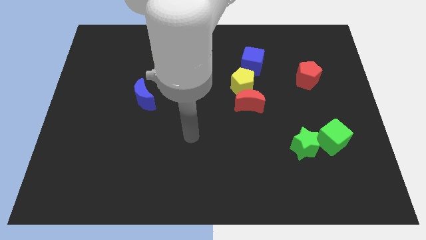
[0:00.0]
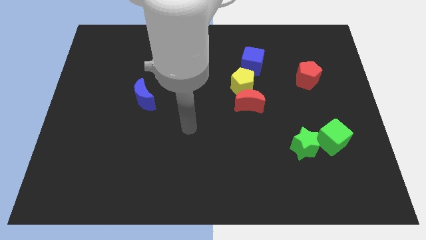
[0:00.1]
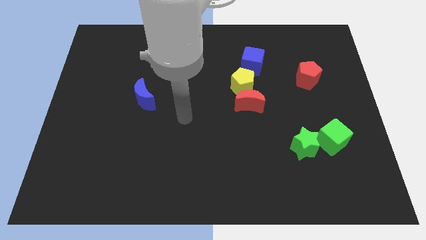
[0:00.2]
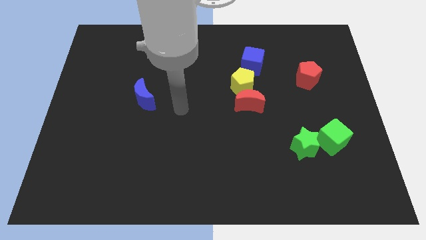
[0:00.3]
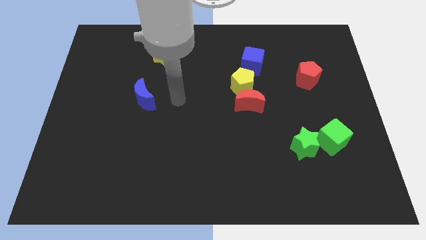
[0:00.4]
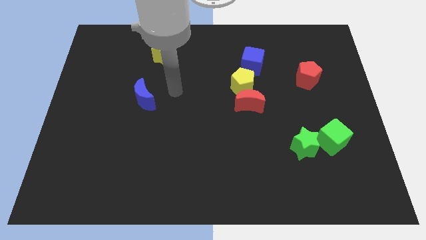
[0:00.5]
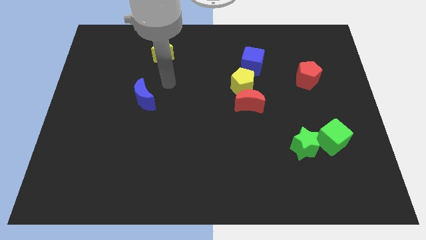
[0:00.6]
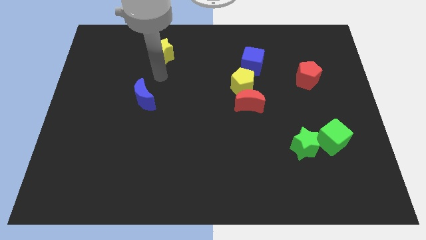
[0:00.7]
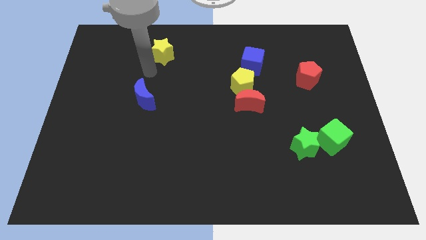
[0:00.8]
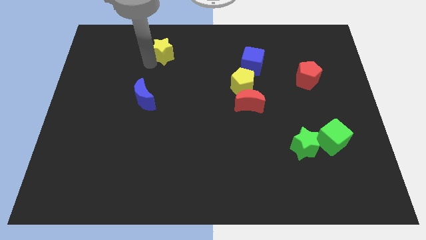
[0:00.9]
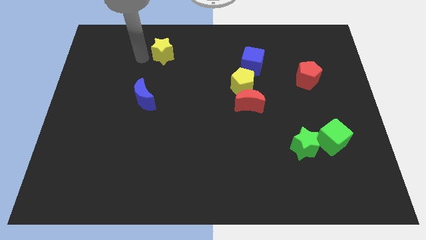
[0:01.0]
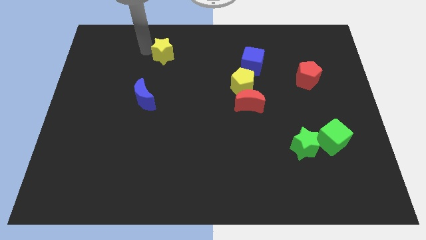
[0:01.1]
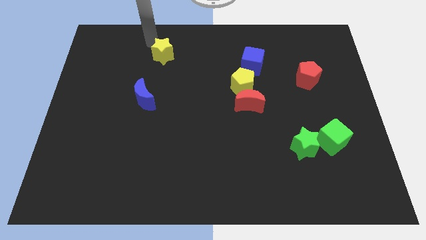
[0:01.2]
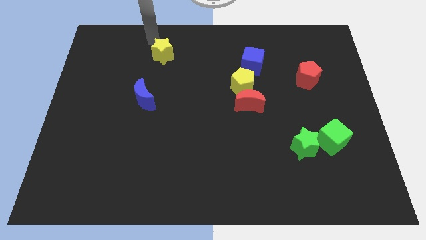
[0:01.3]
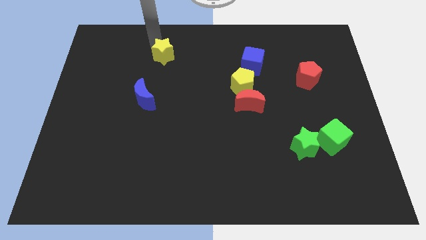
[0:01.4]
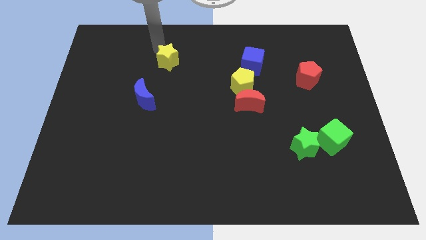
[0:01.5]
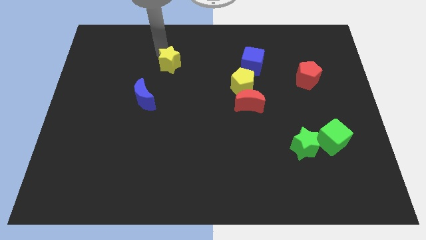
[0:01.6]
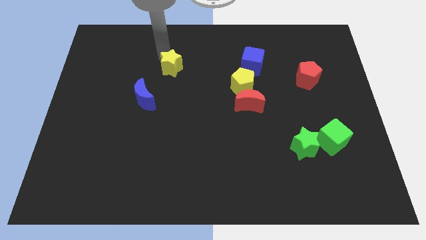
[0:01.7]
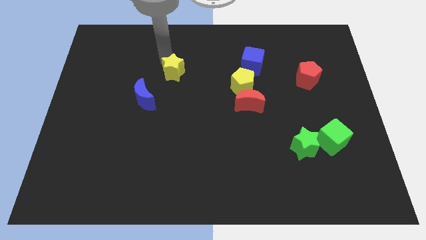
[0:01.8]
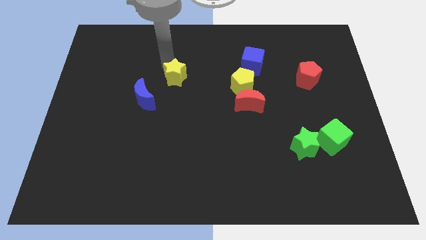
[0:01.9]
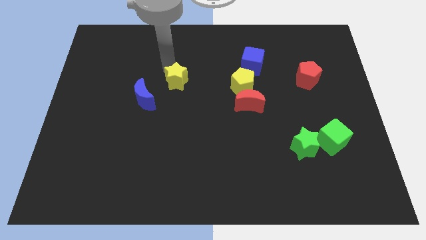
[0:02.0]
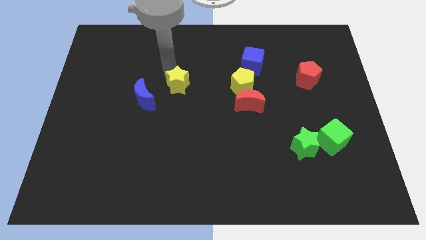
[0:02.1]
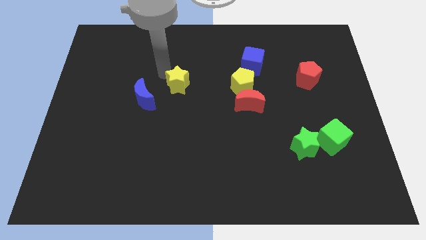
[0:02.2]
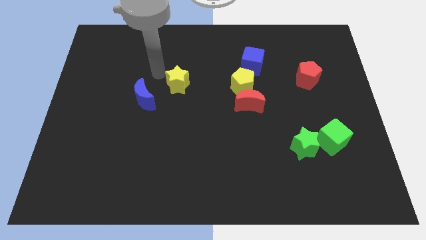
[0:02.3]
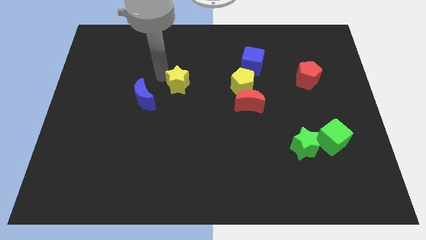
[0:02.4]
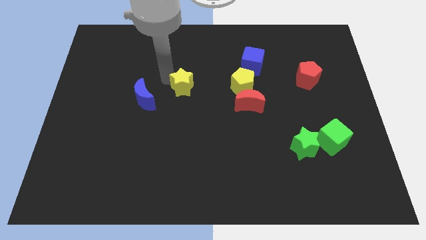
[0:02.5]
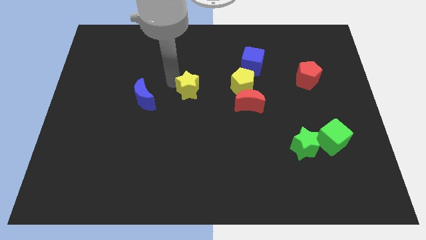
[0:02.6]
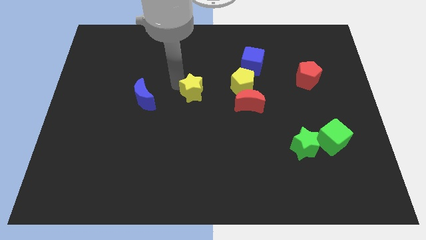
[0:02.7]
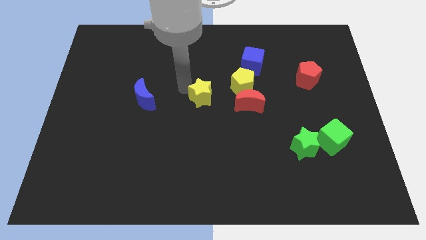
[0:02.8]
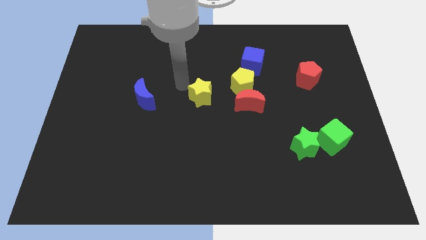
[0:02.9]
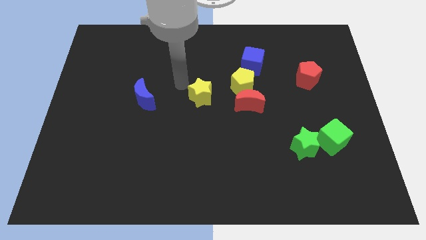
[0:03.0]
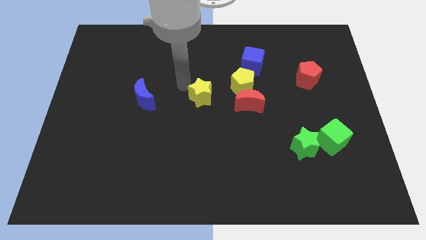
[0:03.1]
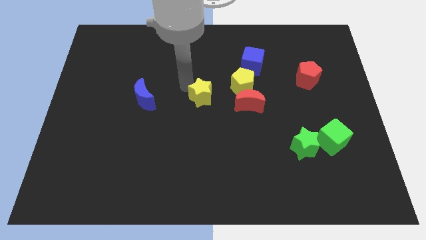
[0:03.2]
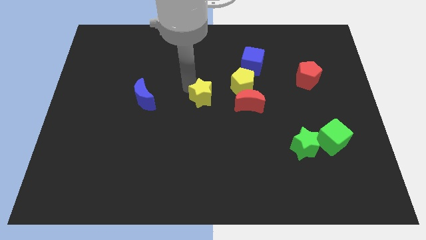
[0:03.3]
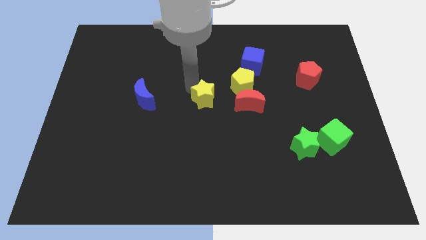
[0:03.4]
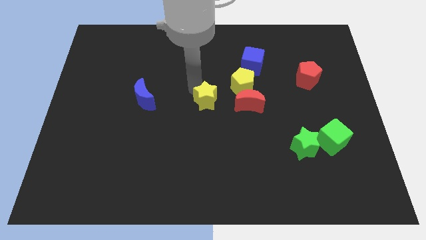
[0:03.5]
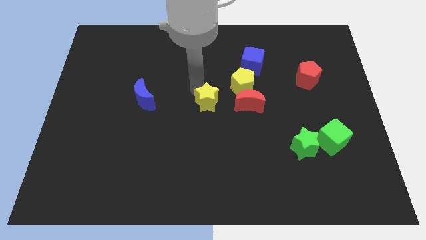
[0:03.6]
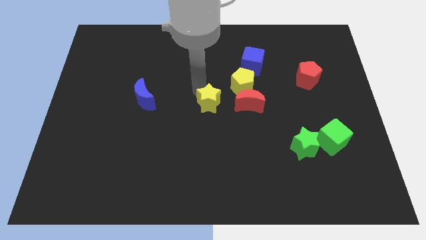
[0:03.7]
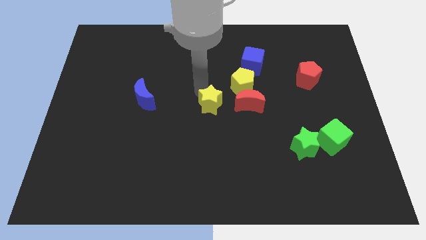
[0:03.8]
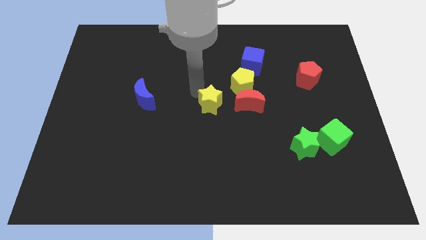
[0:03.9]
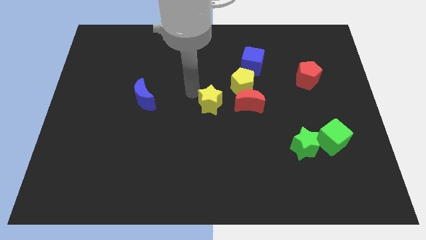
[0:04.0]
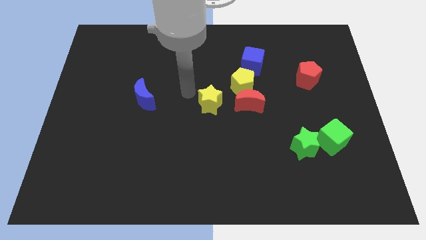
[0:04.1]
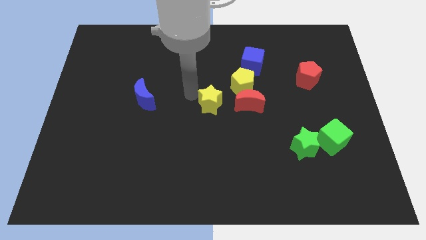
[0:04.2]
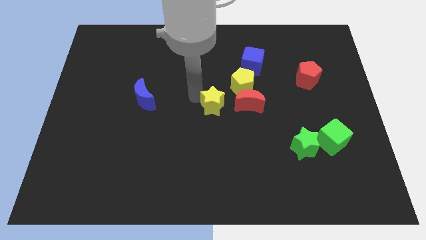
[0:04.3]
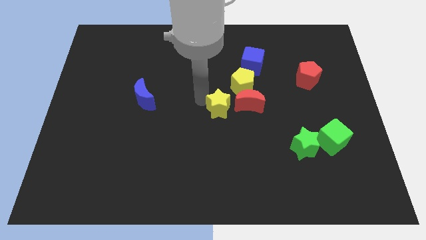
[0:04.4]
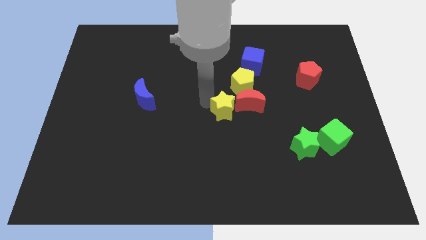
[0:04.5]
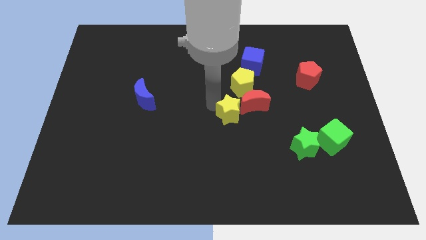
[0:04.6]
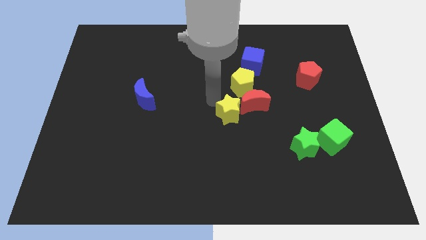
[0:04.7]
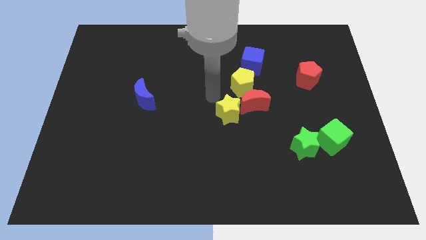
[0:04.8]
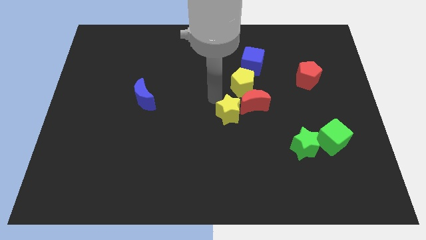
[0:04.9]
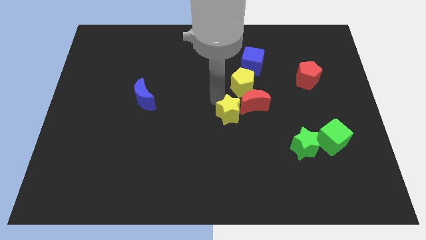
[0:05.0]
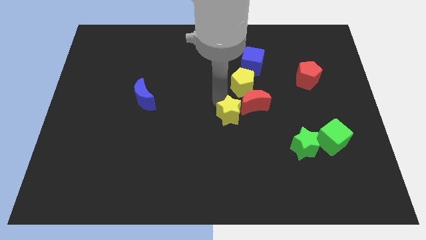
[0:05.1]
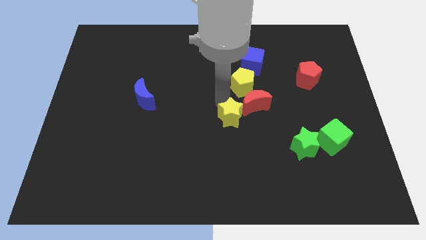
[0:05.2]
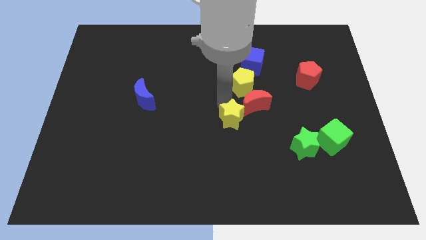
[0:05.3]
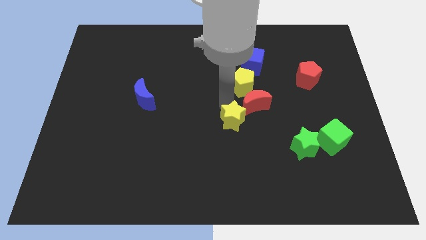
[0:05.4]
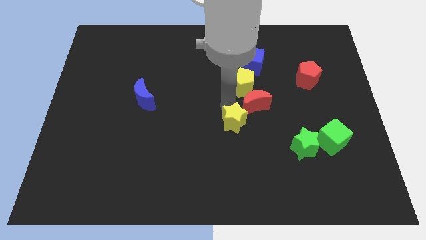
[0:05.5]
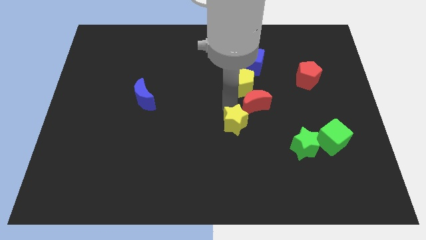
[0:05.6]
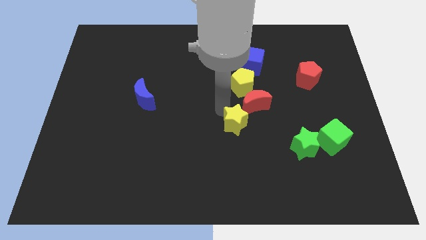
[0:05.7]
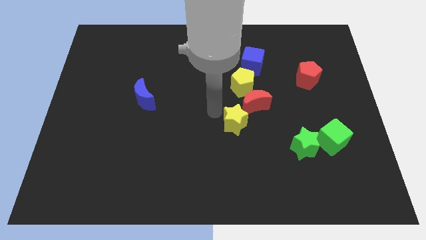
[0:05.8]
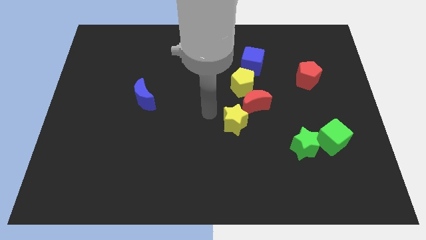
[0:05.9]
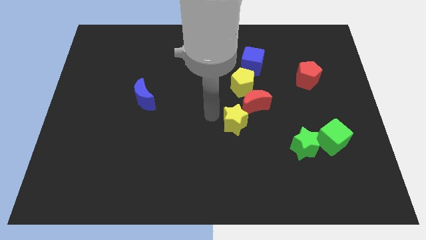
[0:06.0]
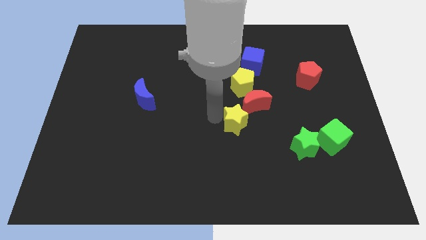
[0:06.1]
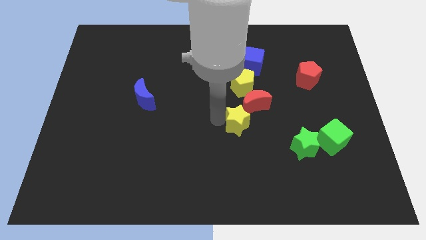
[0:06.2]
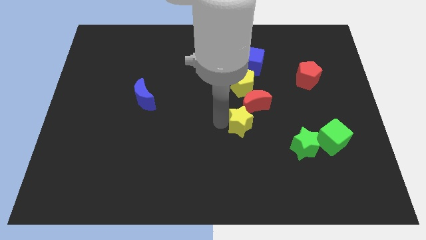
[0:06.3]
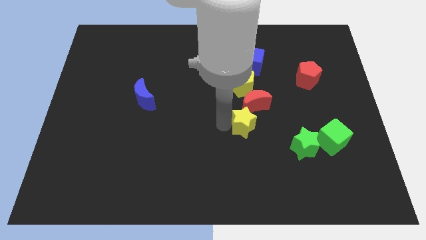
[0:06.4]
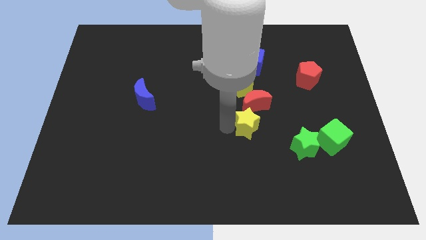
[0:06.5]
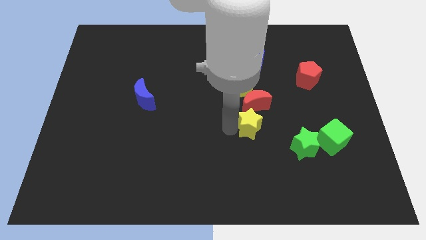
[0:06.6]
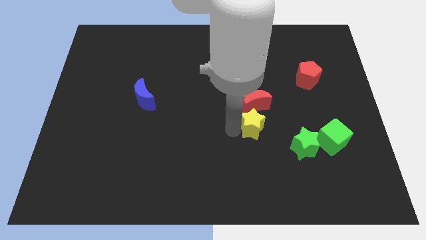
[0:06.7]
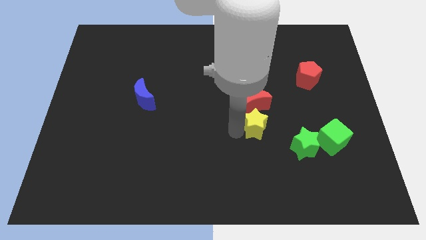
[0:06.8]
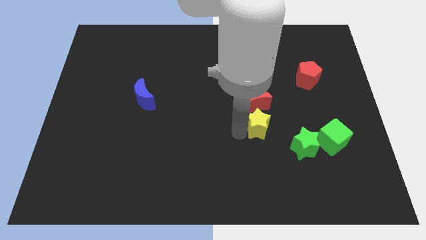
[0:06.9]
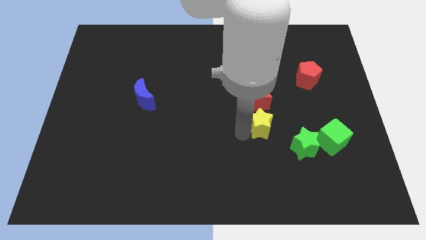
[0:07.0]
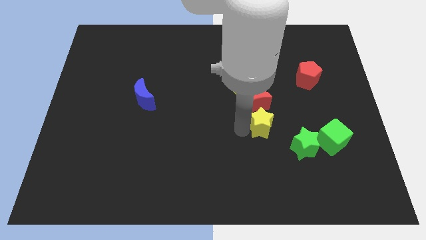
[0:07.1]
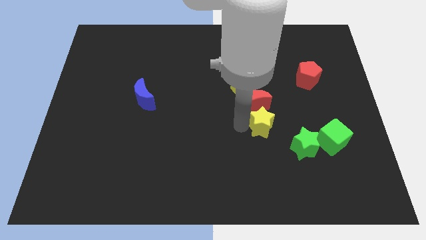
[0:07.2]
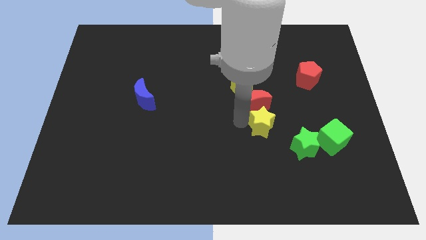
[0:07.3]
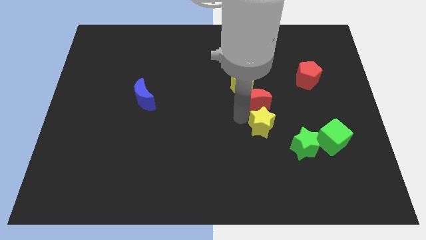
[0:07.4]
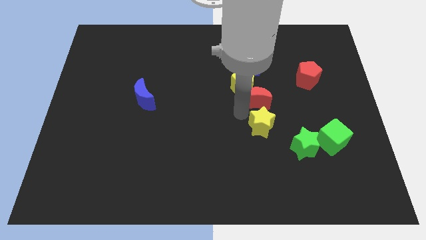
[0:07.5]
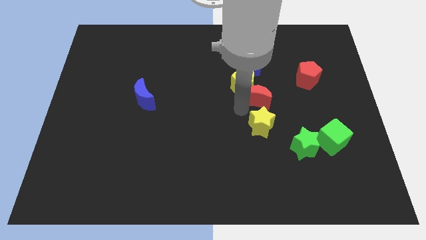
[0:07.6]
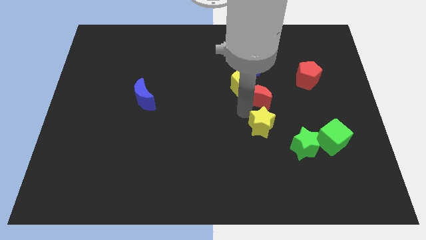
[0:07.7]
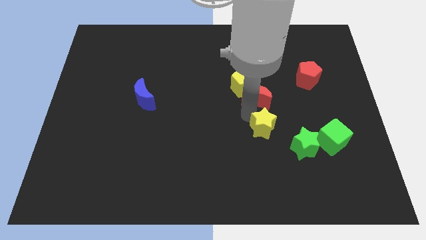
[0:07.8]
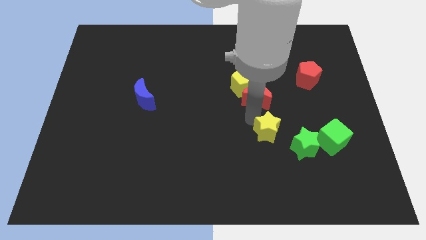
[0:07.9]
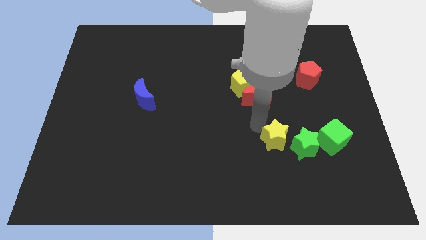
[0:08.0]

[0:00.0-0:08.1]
put the yellow star towards the green star
